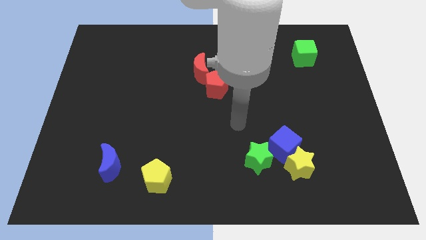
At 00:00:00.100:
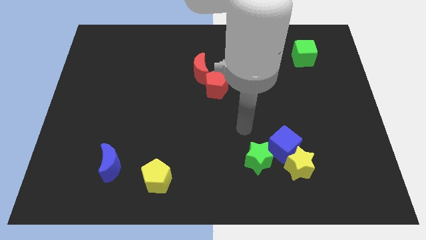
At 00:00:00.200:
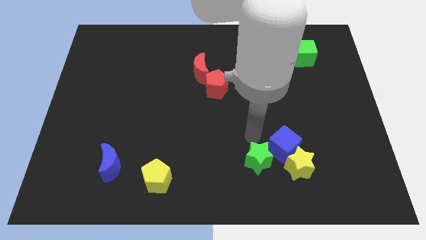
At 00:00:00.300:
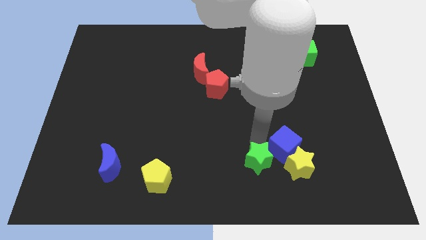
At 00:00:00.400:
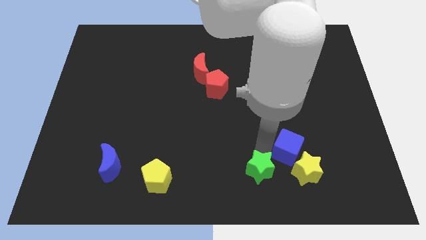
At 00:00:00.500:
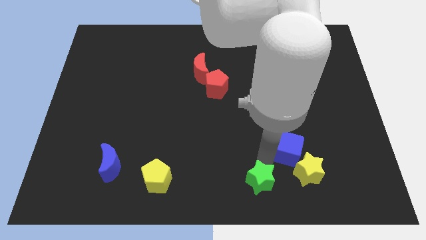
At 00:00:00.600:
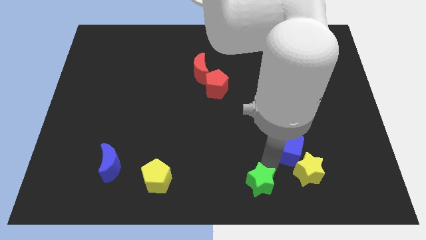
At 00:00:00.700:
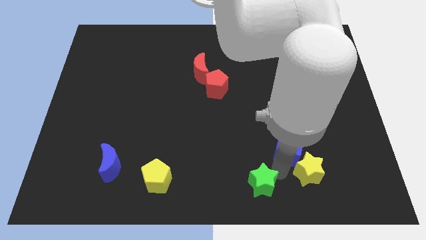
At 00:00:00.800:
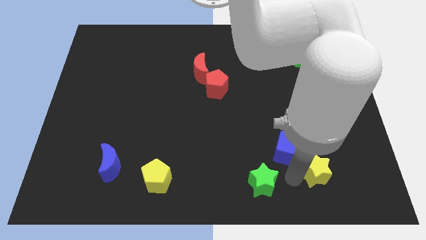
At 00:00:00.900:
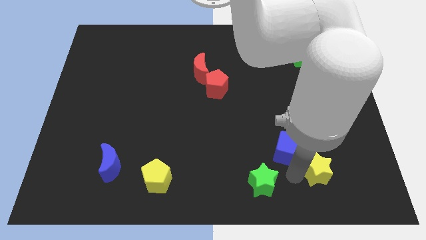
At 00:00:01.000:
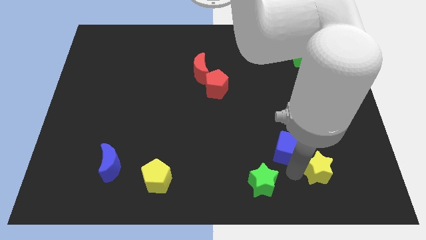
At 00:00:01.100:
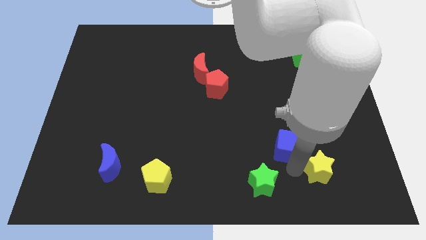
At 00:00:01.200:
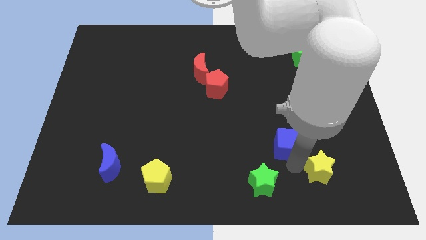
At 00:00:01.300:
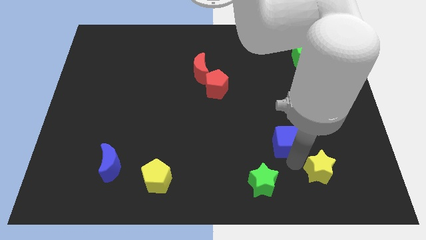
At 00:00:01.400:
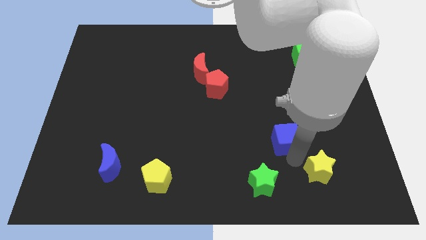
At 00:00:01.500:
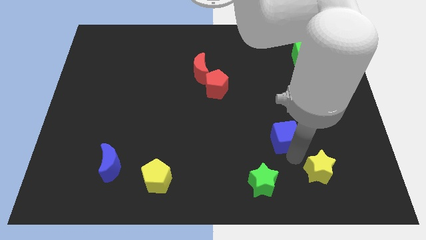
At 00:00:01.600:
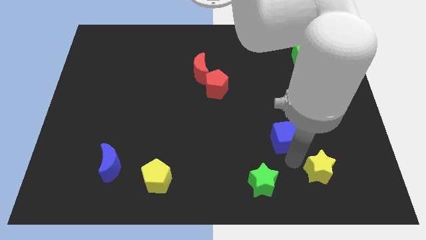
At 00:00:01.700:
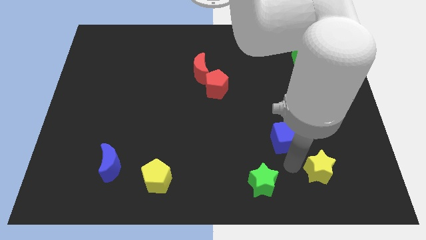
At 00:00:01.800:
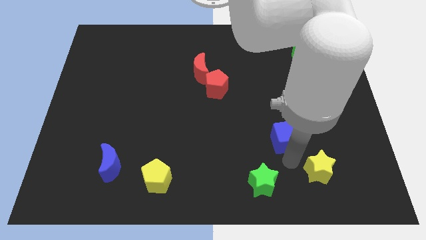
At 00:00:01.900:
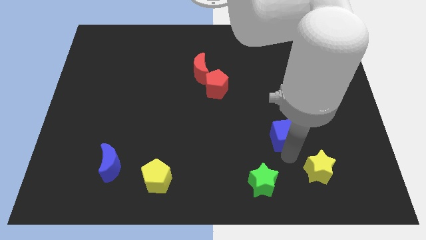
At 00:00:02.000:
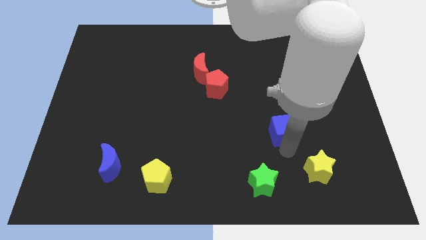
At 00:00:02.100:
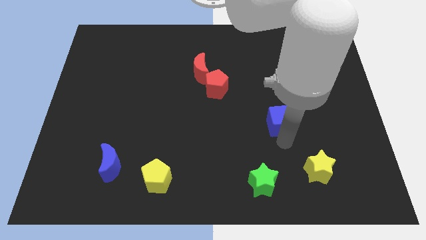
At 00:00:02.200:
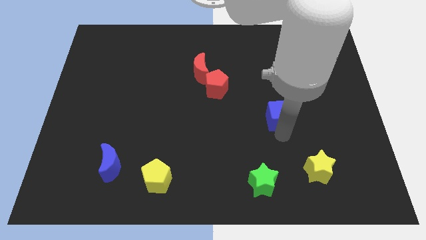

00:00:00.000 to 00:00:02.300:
slightly slide the blue cube upwards

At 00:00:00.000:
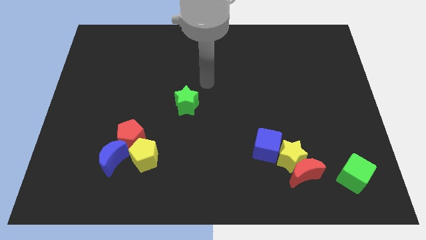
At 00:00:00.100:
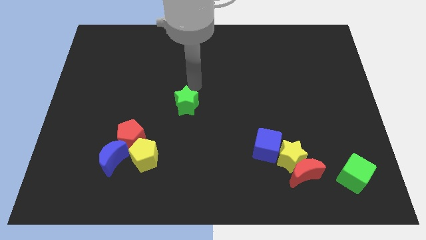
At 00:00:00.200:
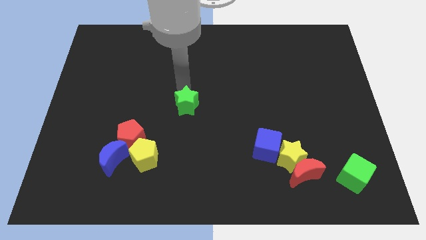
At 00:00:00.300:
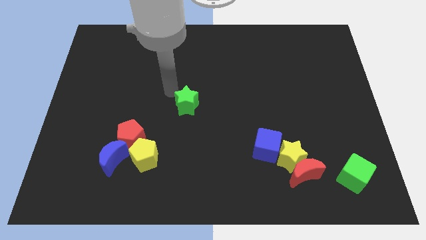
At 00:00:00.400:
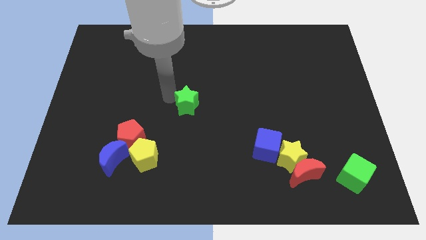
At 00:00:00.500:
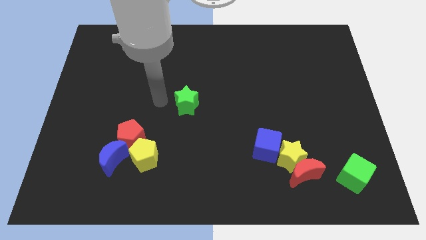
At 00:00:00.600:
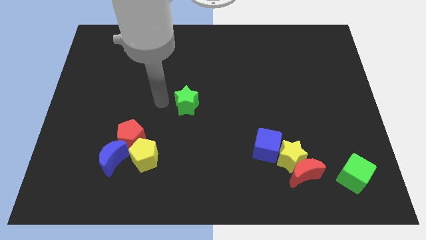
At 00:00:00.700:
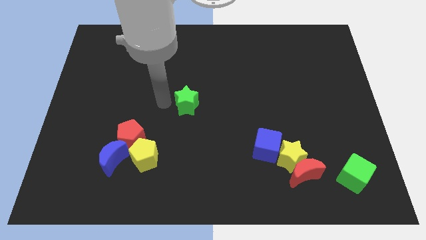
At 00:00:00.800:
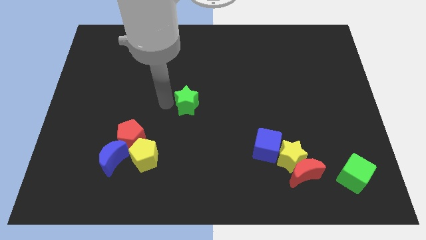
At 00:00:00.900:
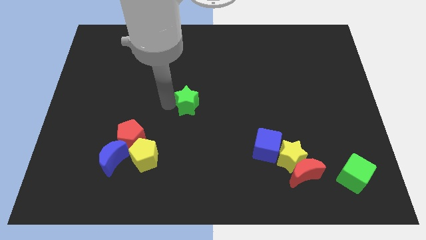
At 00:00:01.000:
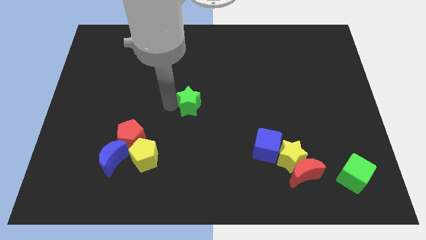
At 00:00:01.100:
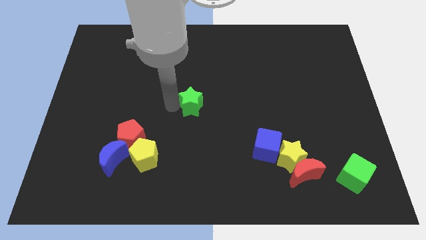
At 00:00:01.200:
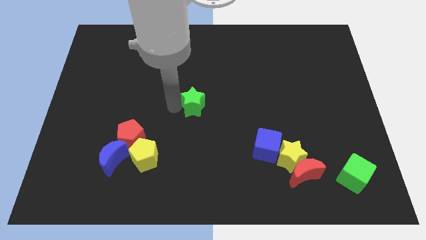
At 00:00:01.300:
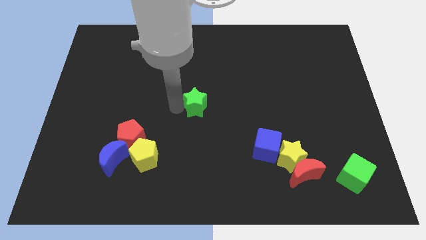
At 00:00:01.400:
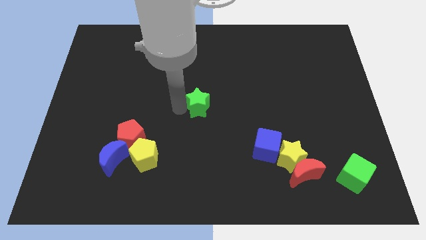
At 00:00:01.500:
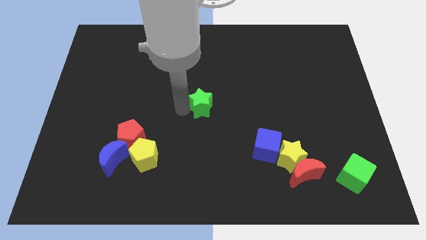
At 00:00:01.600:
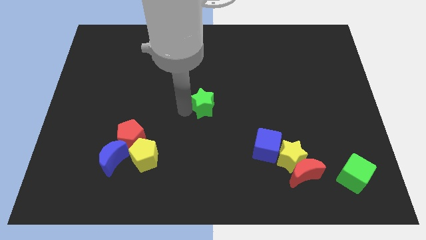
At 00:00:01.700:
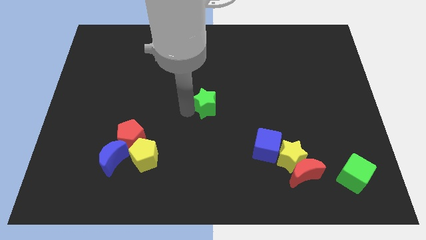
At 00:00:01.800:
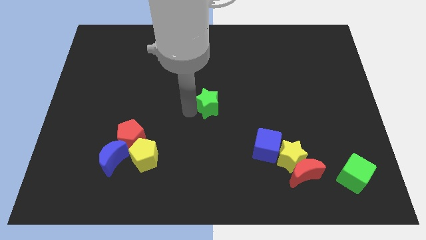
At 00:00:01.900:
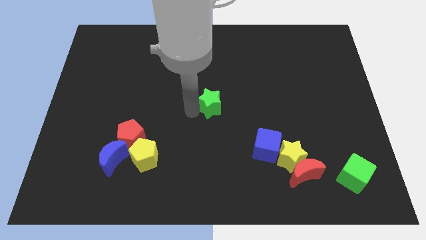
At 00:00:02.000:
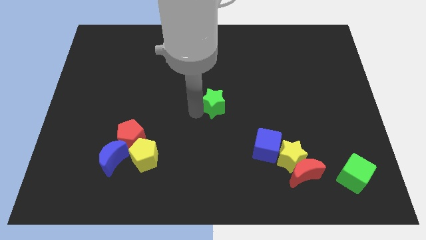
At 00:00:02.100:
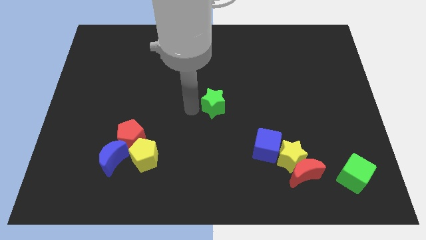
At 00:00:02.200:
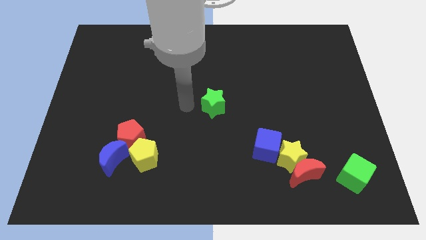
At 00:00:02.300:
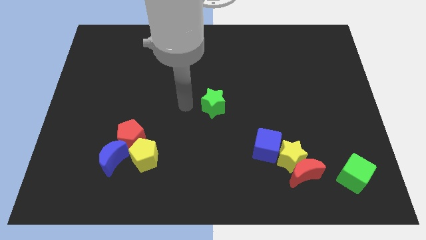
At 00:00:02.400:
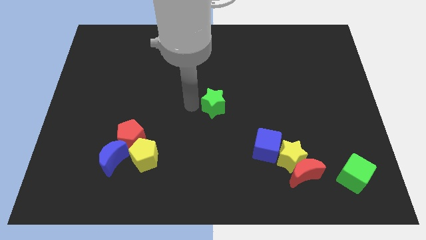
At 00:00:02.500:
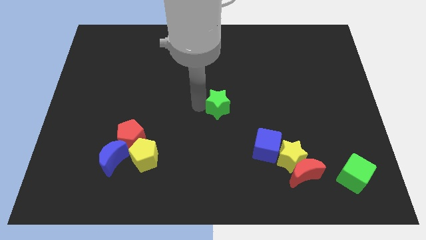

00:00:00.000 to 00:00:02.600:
slightly move the green star to the right

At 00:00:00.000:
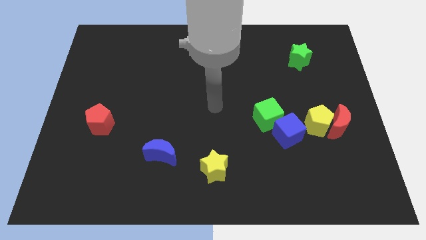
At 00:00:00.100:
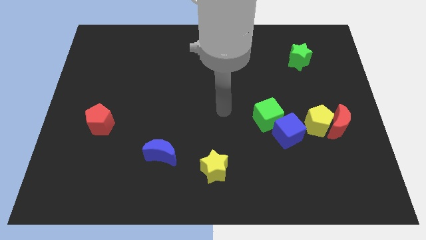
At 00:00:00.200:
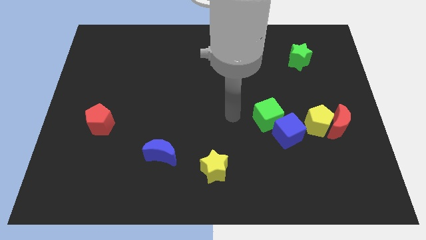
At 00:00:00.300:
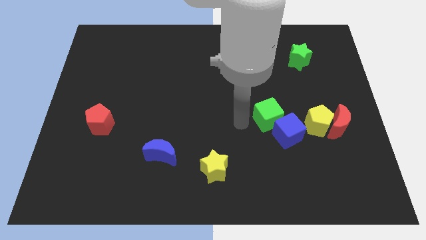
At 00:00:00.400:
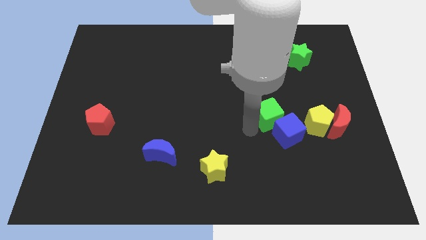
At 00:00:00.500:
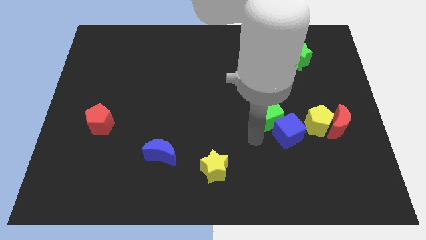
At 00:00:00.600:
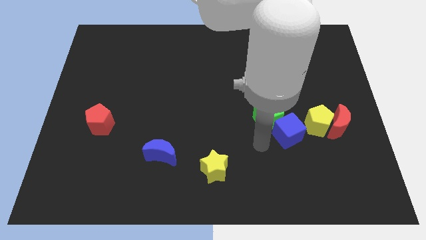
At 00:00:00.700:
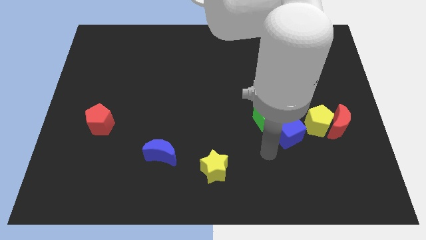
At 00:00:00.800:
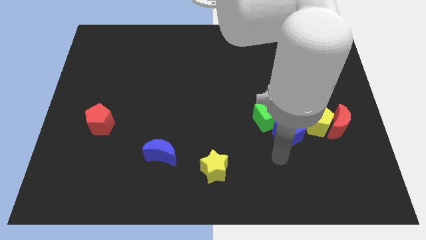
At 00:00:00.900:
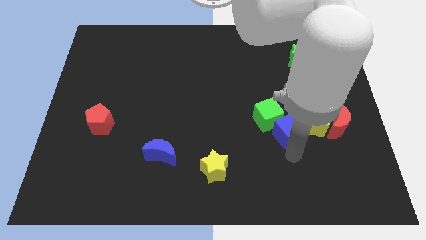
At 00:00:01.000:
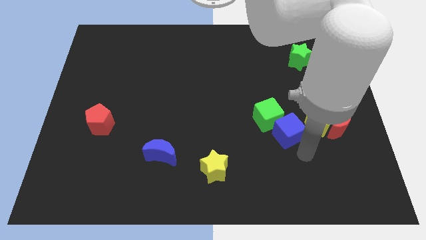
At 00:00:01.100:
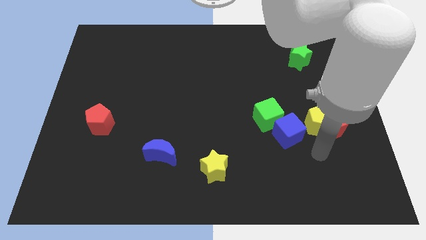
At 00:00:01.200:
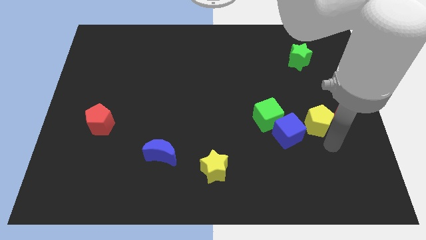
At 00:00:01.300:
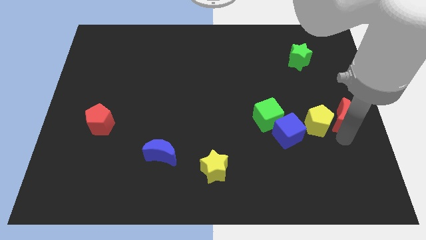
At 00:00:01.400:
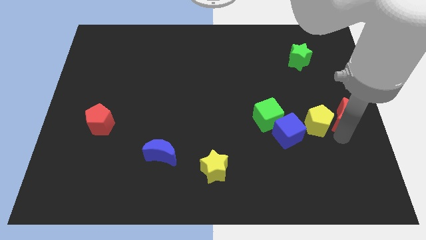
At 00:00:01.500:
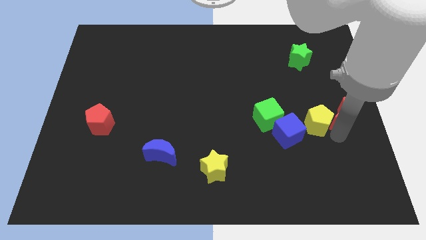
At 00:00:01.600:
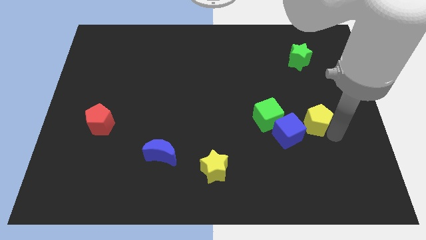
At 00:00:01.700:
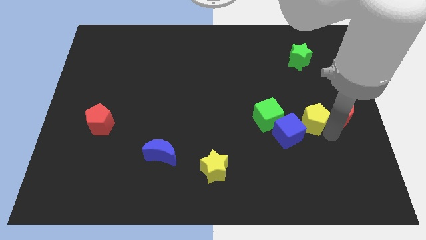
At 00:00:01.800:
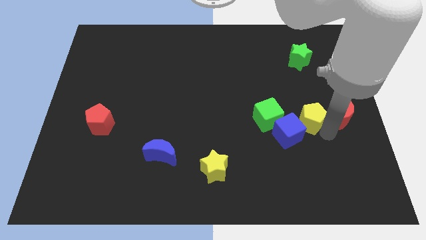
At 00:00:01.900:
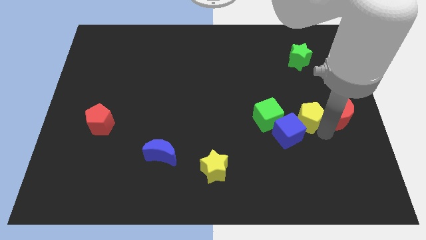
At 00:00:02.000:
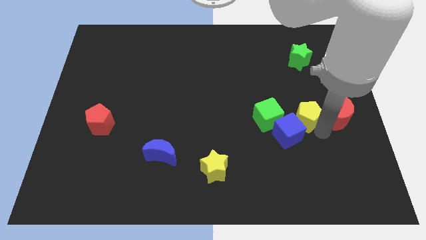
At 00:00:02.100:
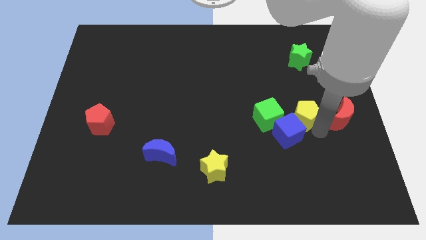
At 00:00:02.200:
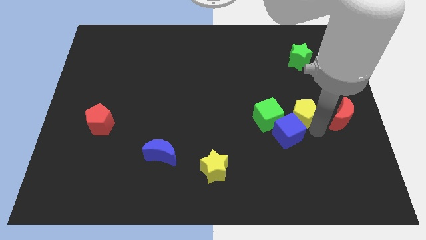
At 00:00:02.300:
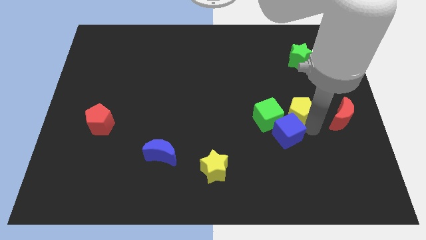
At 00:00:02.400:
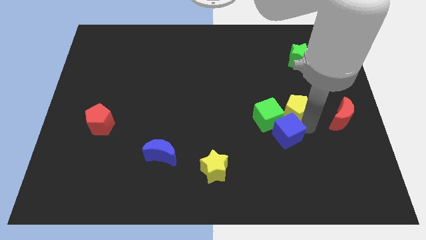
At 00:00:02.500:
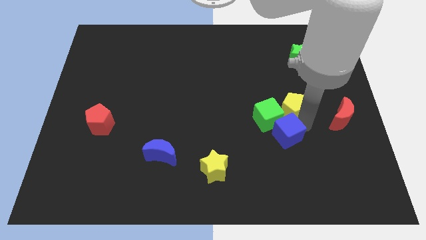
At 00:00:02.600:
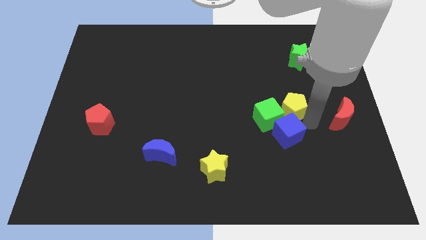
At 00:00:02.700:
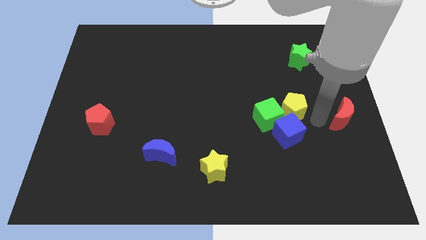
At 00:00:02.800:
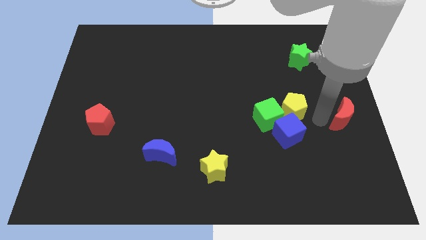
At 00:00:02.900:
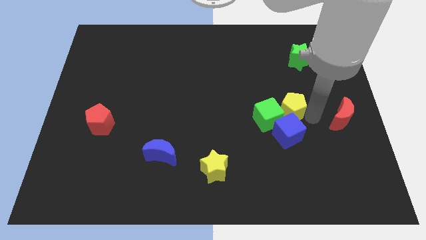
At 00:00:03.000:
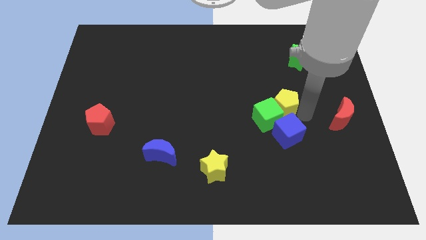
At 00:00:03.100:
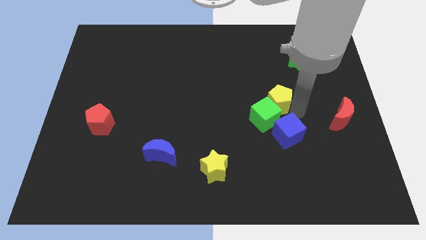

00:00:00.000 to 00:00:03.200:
push the yellow pentagon slightly left
